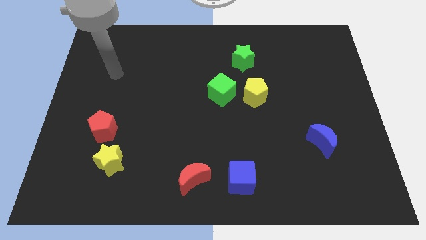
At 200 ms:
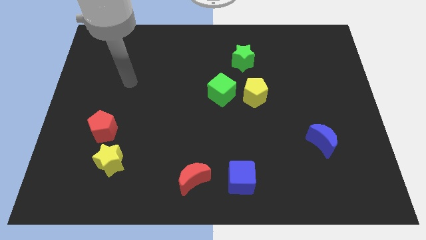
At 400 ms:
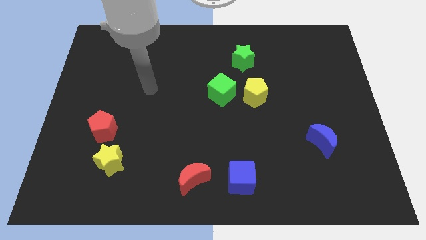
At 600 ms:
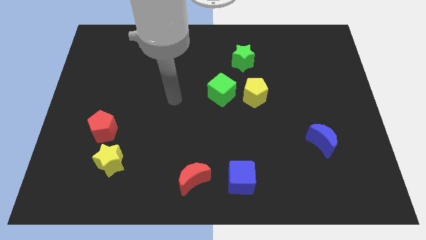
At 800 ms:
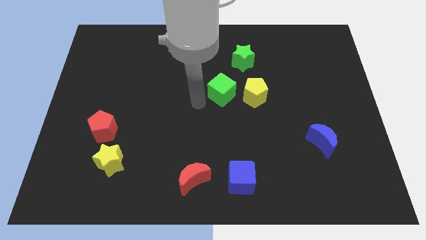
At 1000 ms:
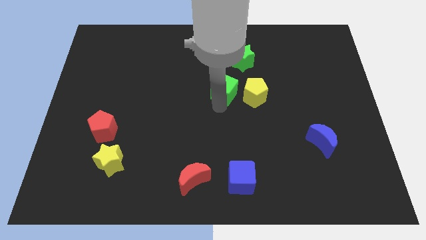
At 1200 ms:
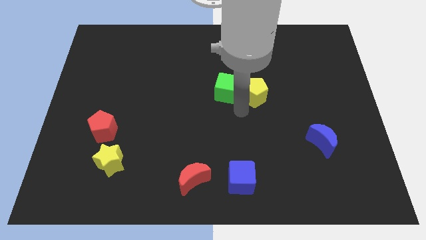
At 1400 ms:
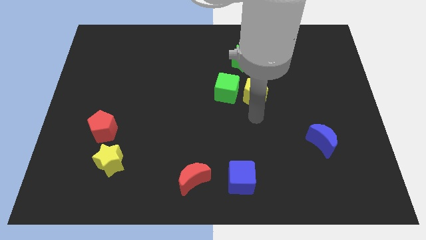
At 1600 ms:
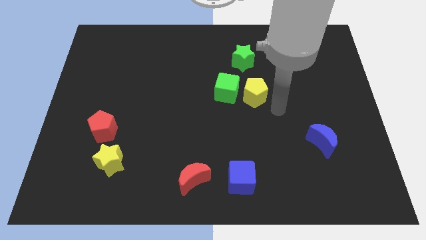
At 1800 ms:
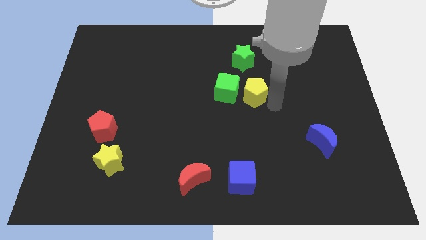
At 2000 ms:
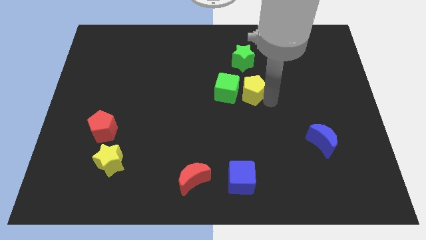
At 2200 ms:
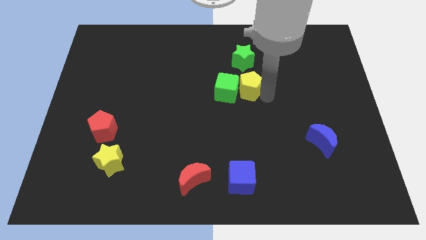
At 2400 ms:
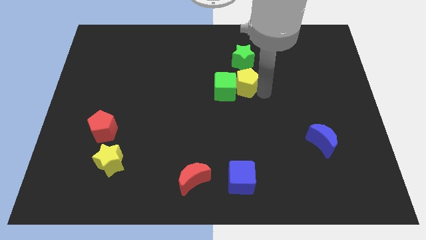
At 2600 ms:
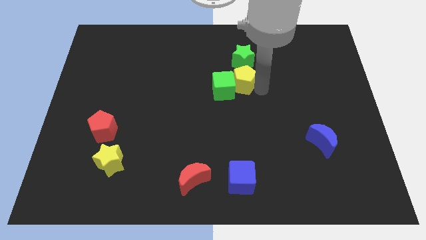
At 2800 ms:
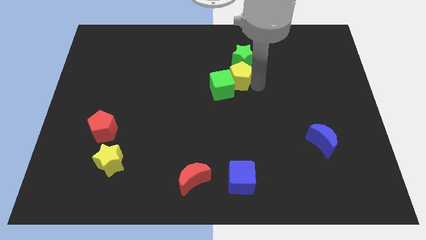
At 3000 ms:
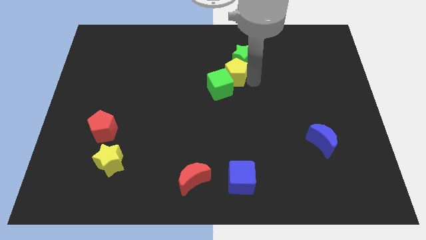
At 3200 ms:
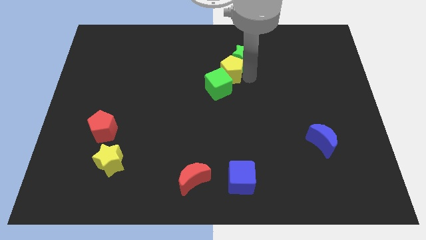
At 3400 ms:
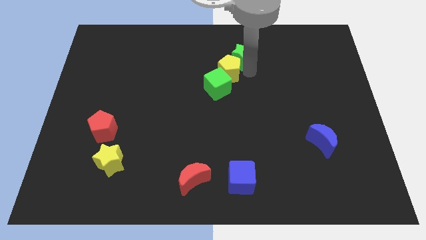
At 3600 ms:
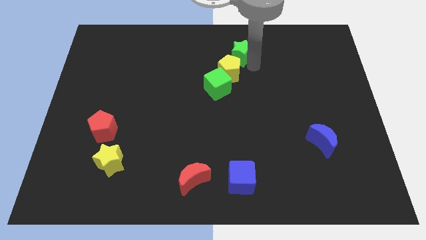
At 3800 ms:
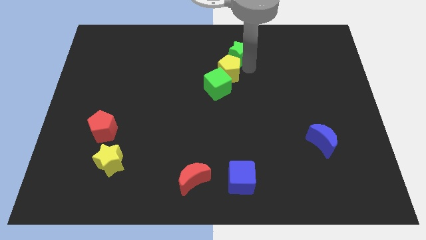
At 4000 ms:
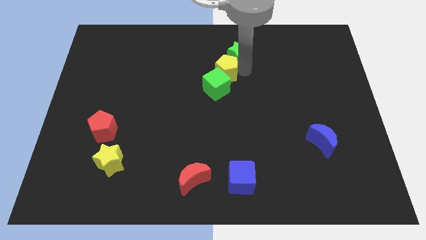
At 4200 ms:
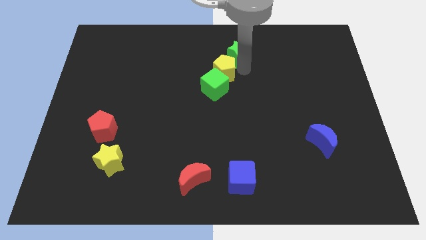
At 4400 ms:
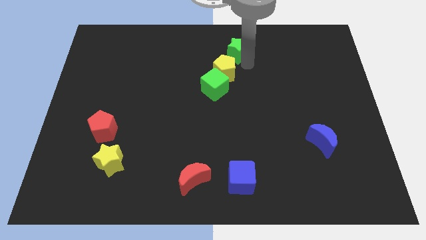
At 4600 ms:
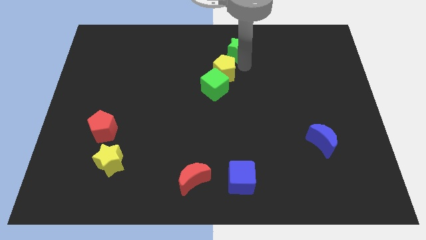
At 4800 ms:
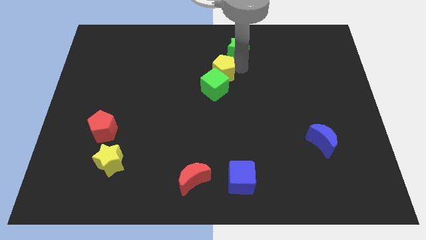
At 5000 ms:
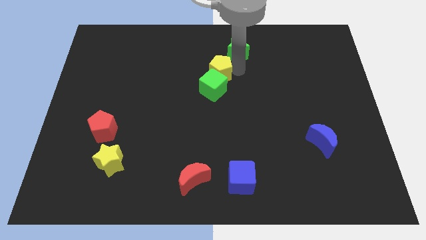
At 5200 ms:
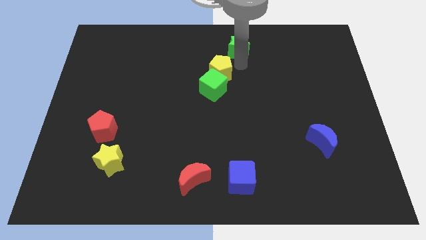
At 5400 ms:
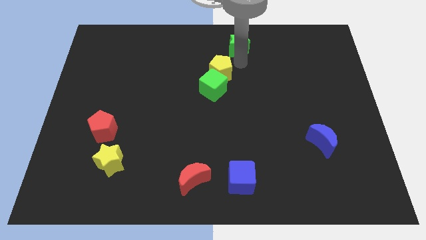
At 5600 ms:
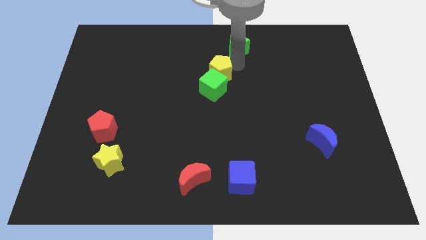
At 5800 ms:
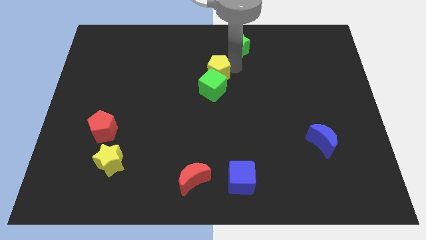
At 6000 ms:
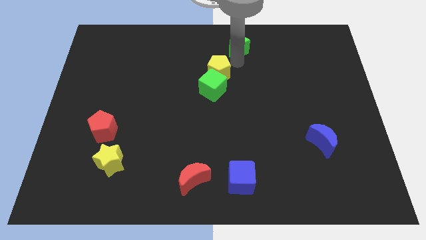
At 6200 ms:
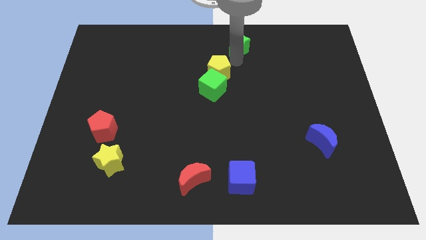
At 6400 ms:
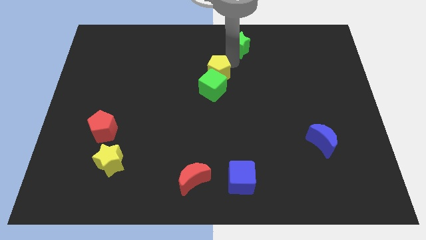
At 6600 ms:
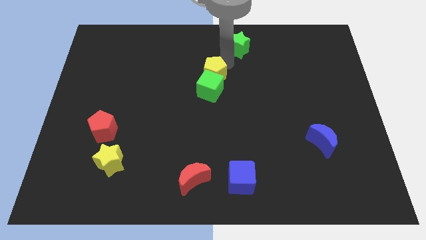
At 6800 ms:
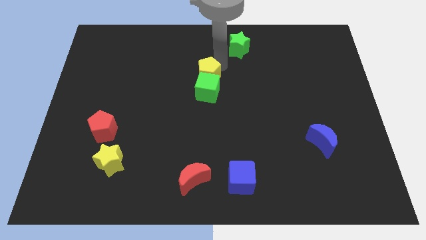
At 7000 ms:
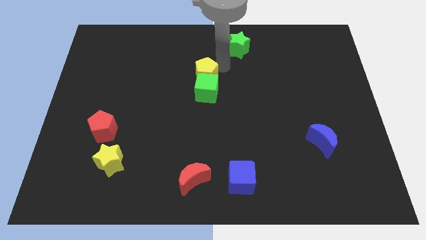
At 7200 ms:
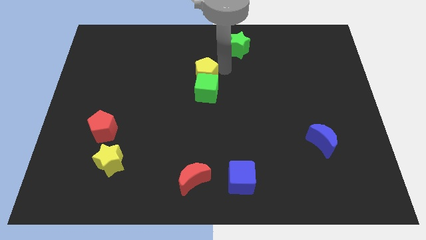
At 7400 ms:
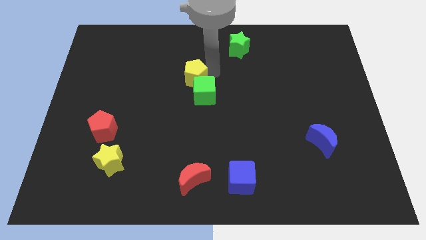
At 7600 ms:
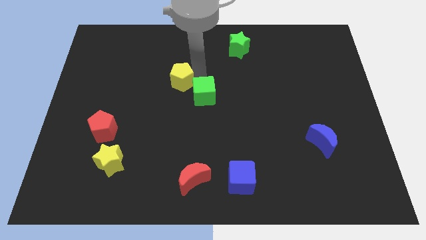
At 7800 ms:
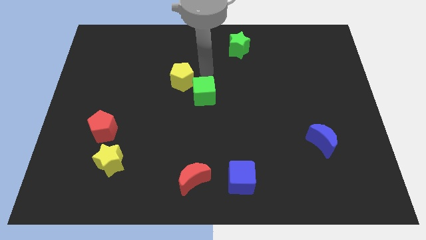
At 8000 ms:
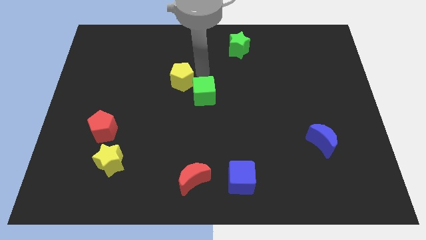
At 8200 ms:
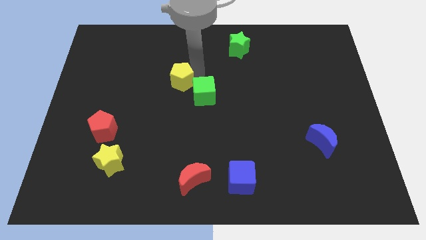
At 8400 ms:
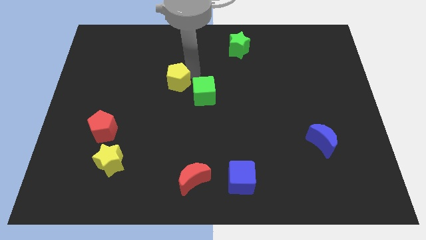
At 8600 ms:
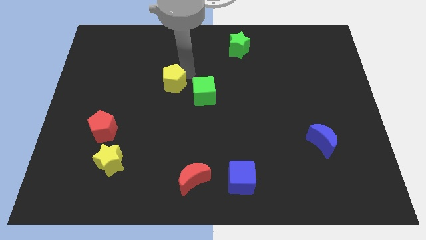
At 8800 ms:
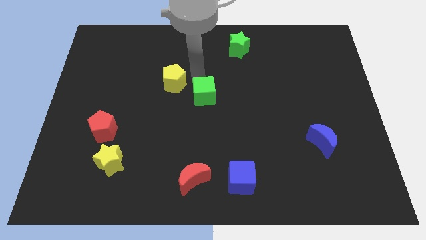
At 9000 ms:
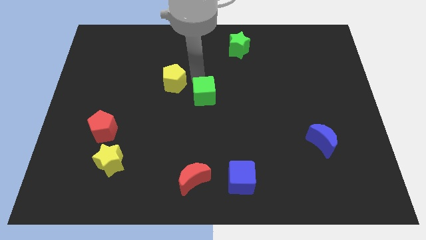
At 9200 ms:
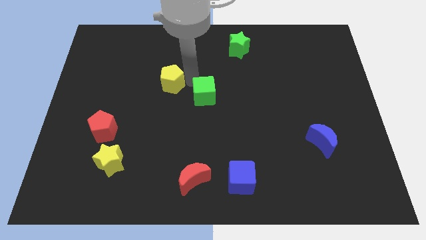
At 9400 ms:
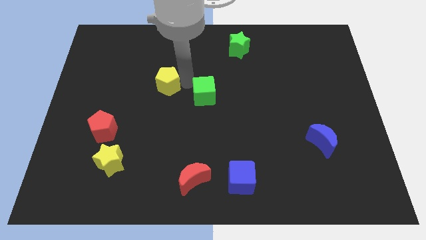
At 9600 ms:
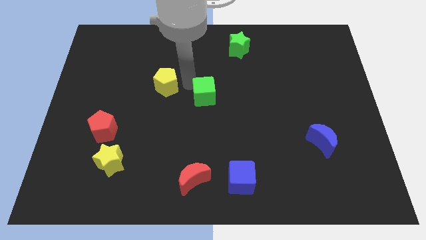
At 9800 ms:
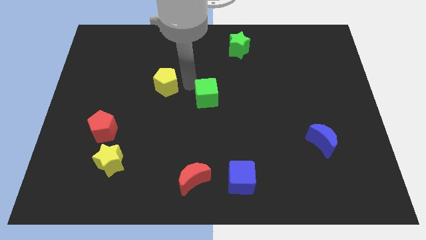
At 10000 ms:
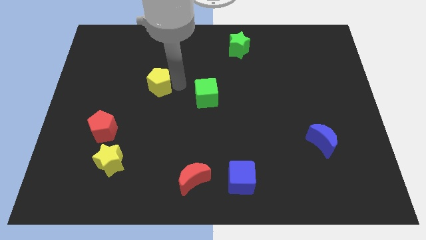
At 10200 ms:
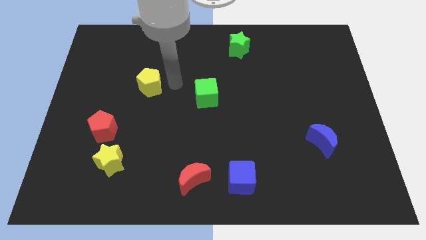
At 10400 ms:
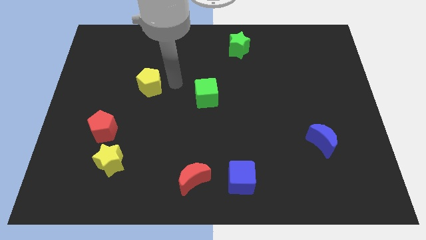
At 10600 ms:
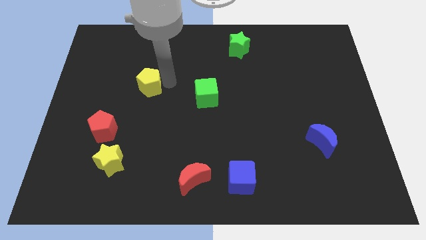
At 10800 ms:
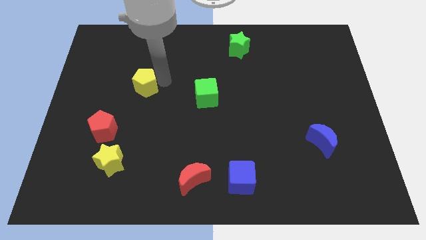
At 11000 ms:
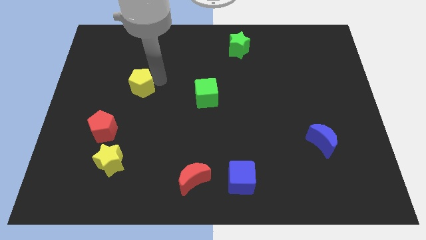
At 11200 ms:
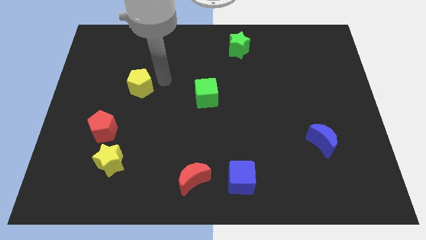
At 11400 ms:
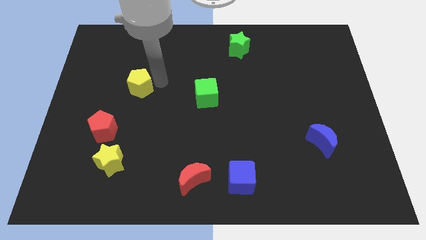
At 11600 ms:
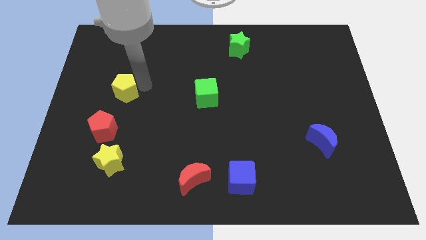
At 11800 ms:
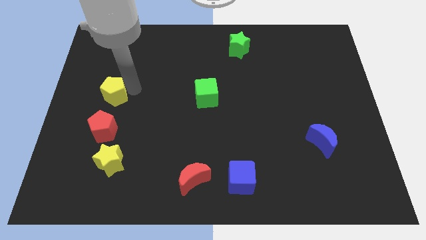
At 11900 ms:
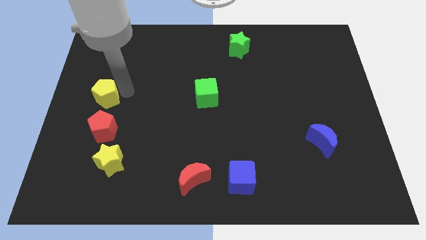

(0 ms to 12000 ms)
push the yellow pentagon to the left side
